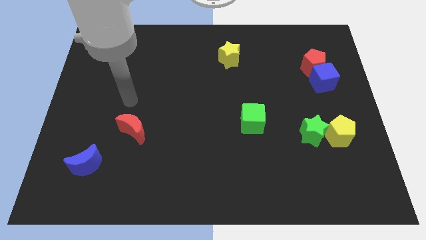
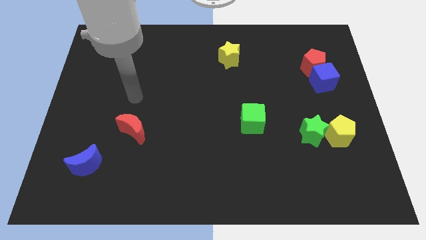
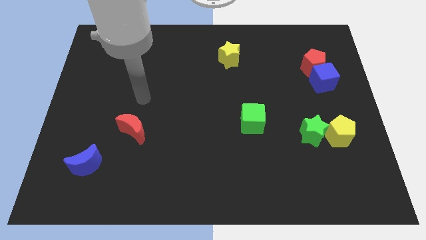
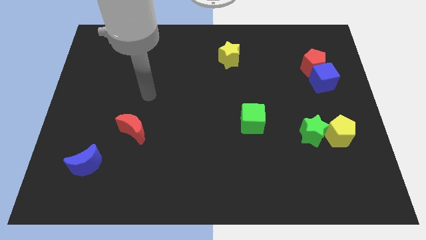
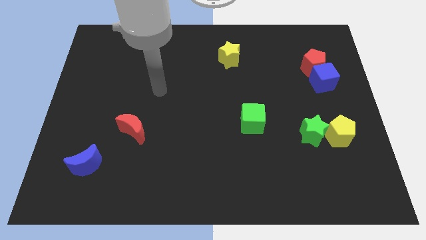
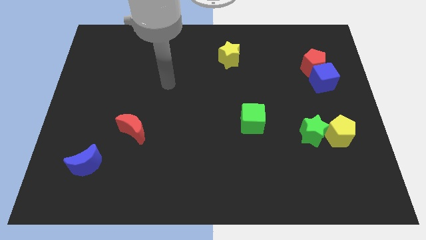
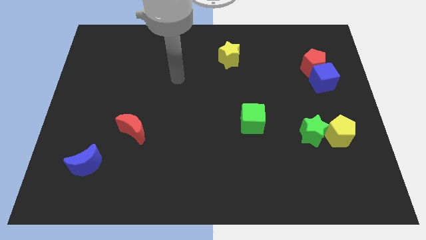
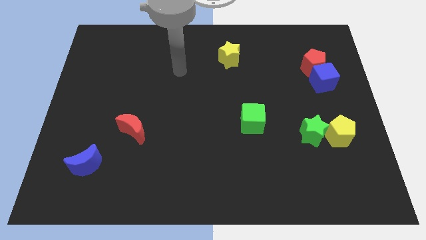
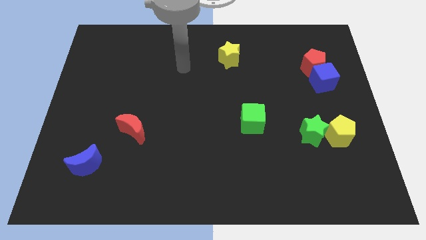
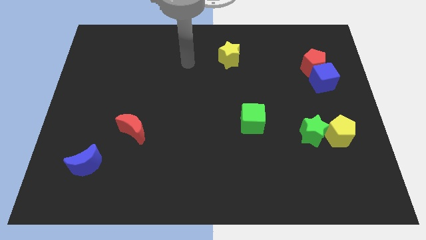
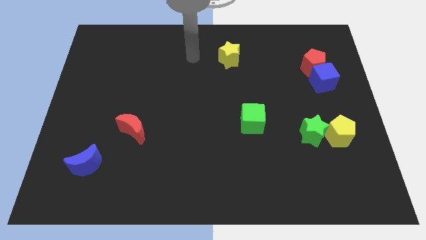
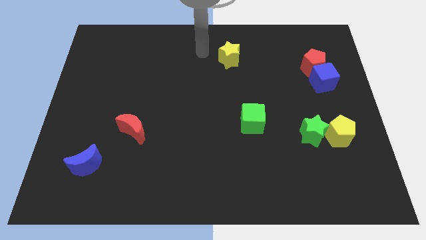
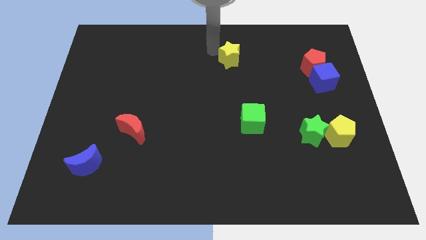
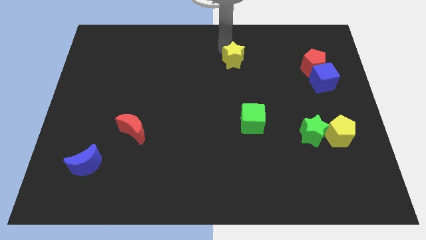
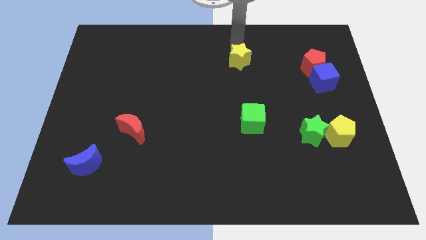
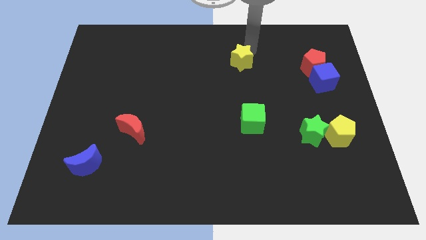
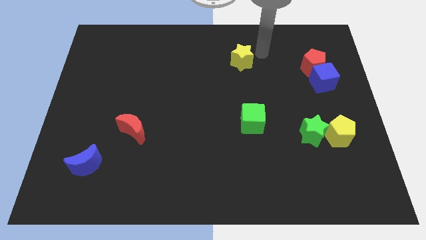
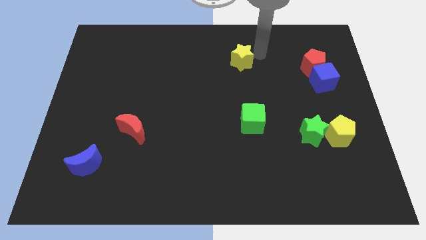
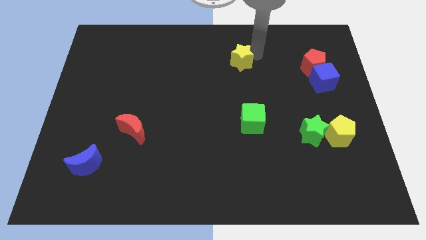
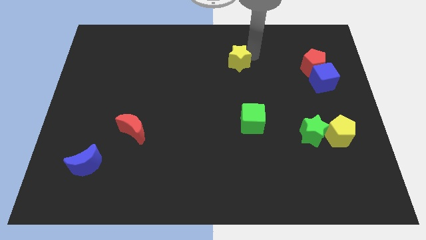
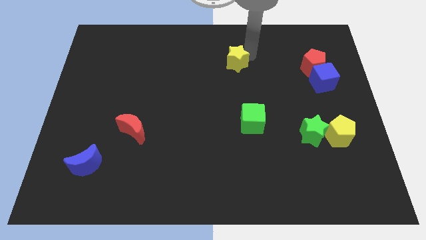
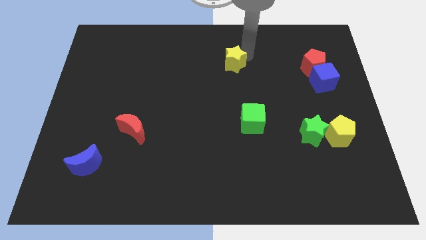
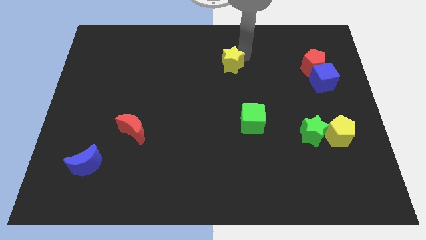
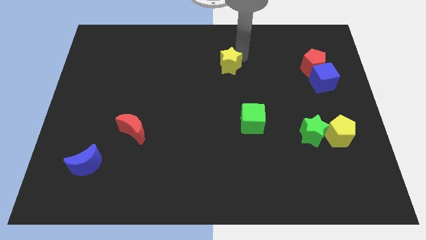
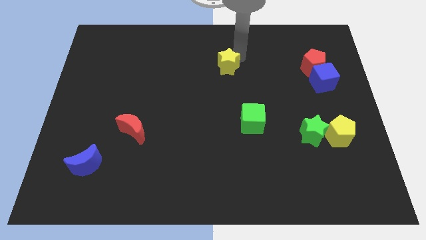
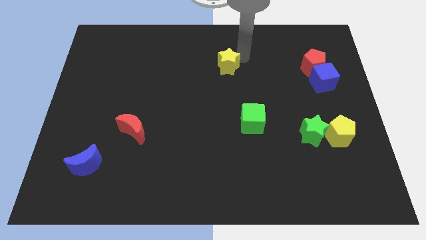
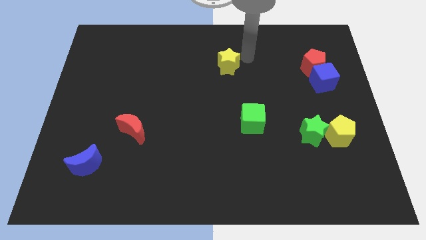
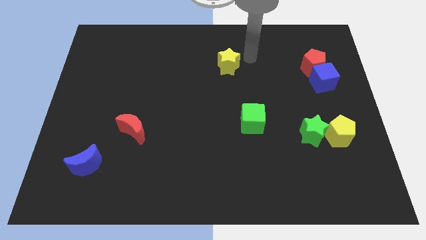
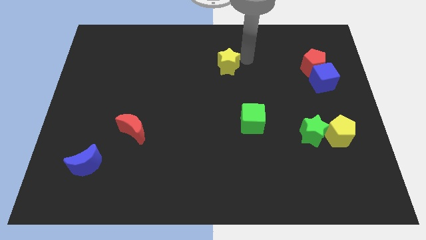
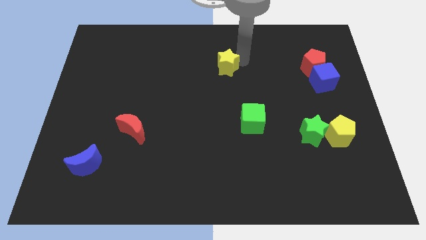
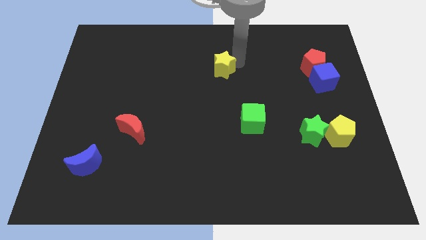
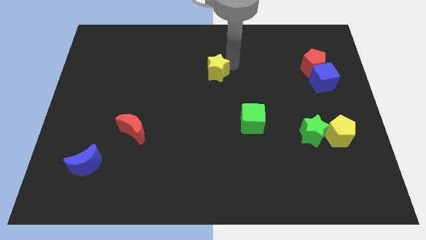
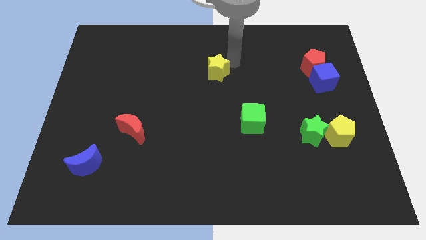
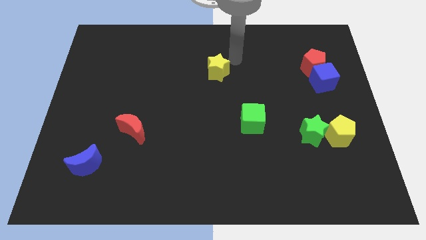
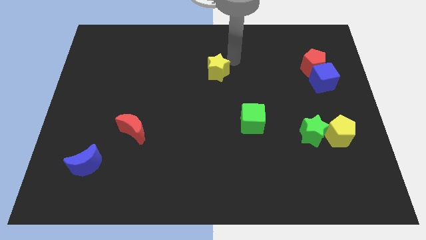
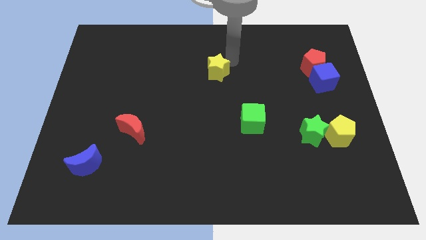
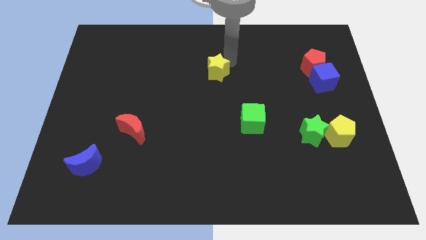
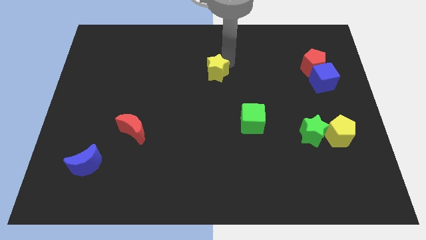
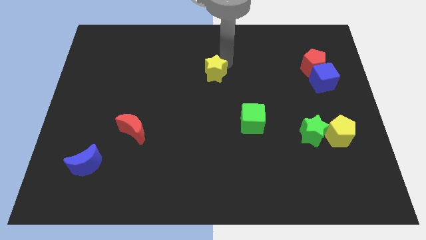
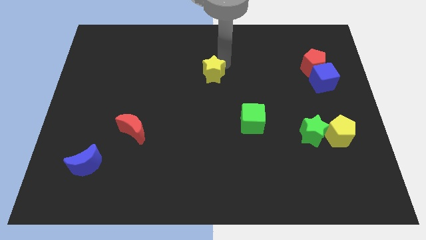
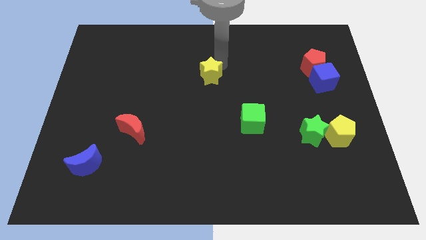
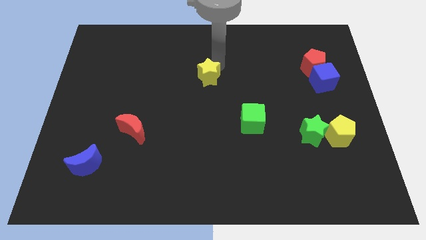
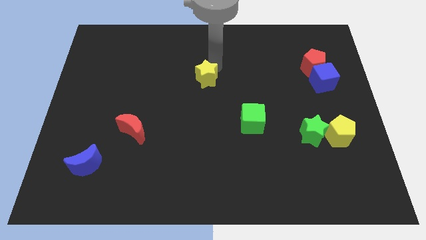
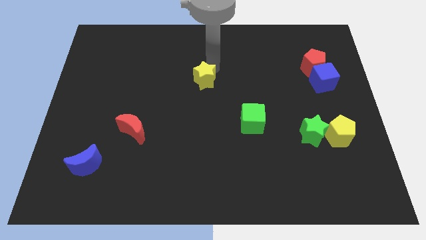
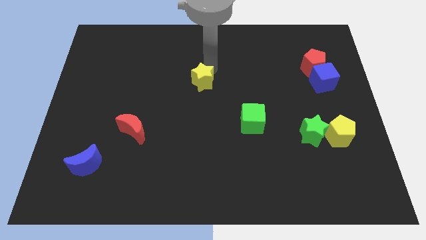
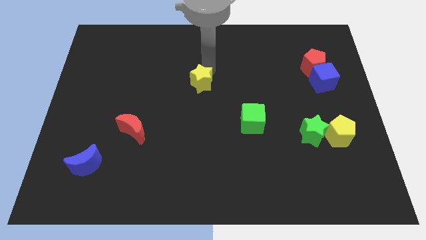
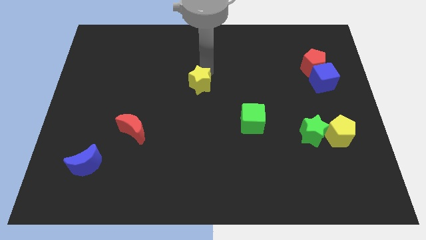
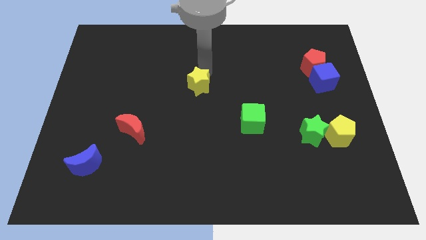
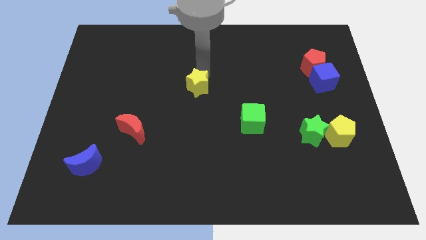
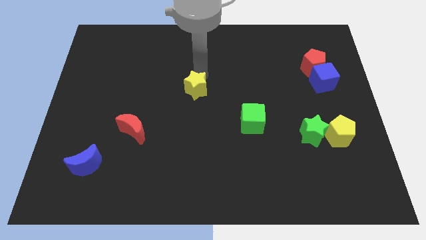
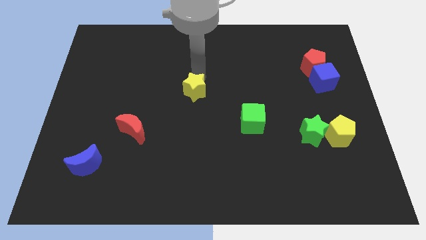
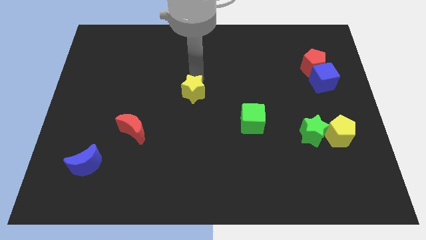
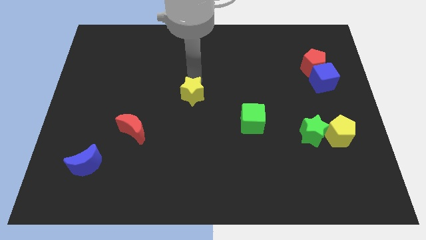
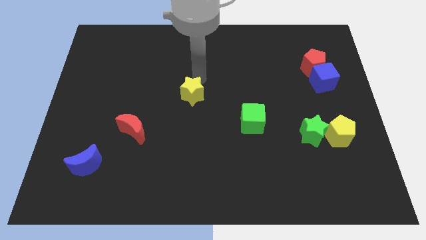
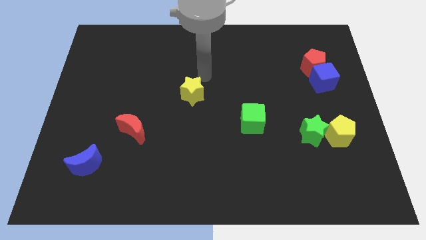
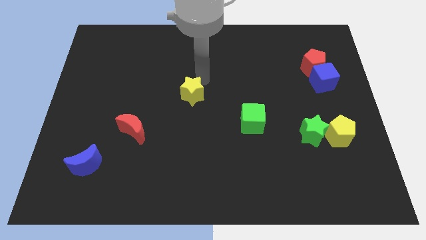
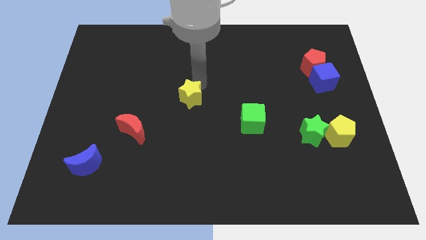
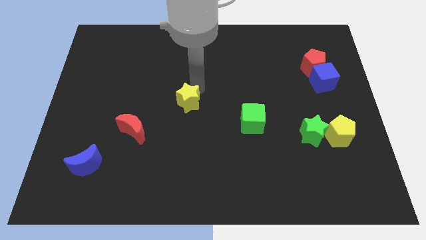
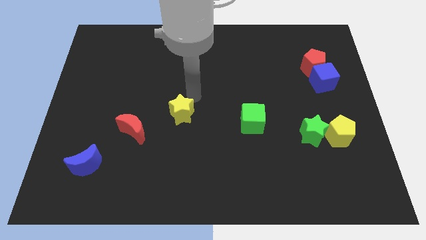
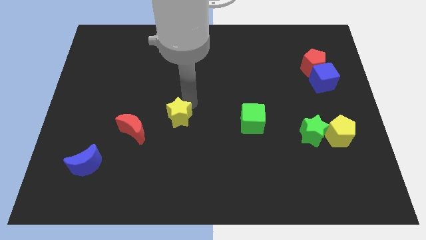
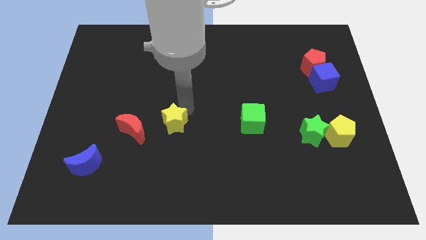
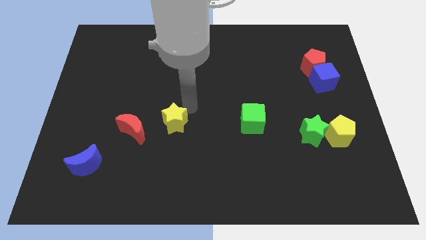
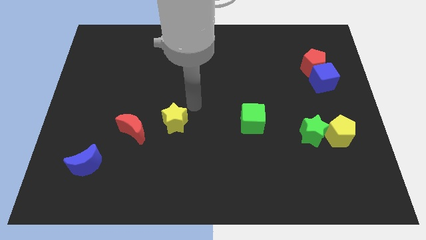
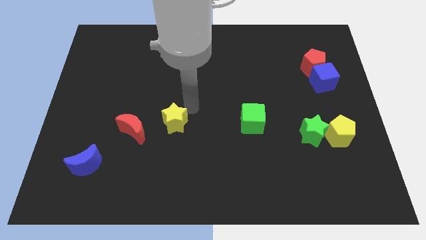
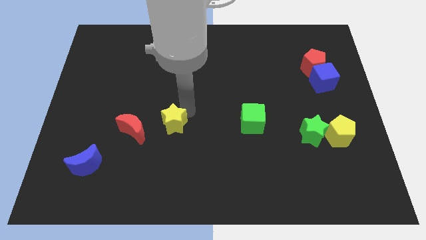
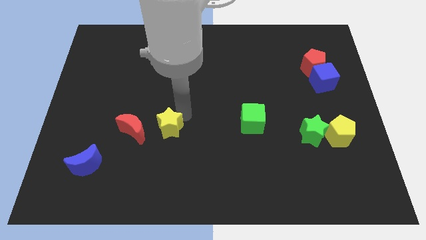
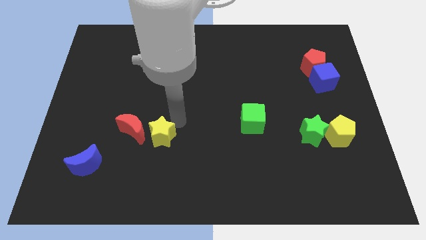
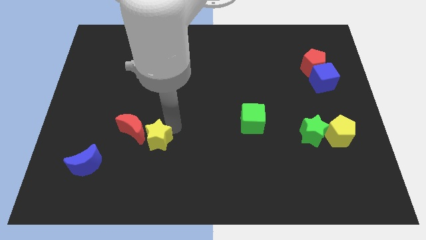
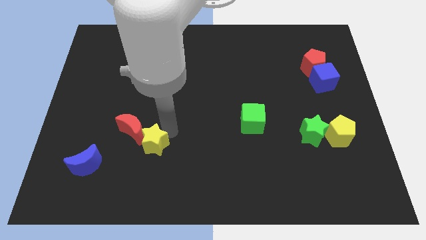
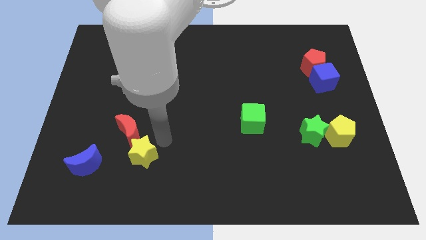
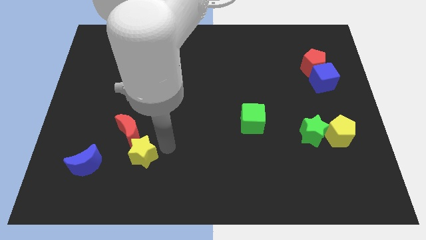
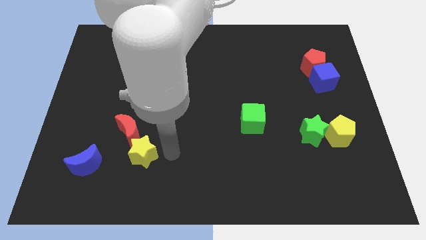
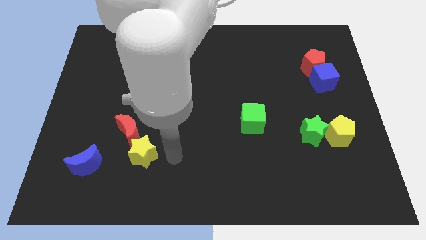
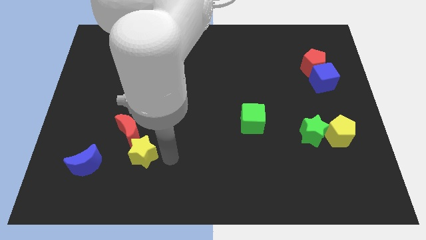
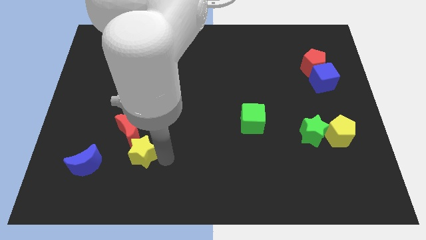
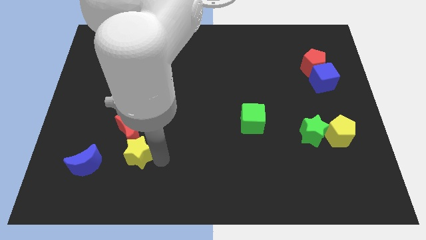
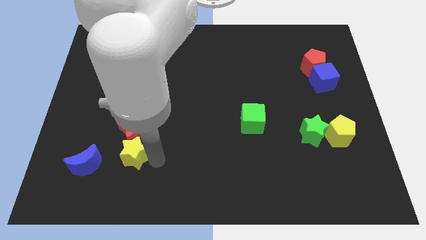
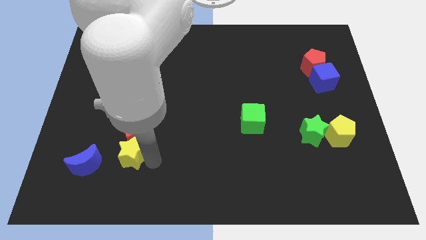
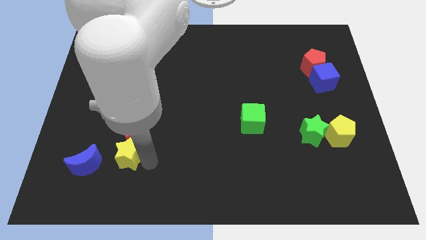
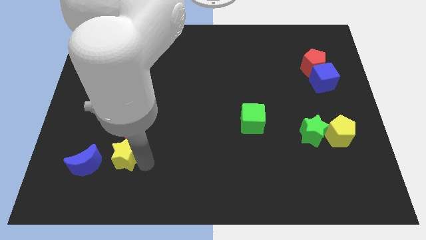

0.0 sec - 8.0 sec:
push the yellow star diagonally down and to the left of the red moon
